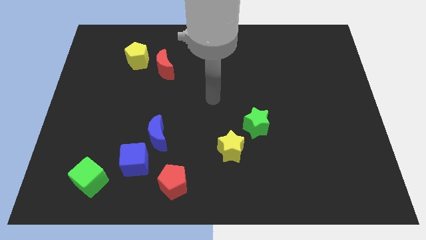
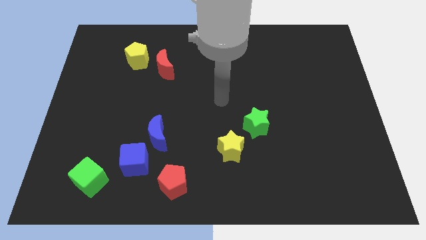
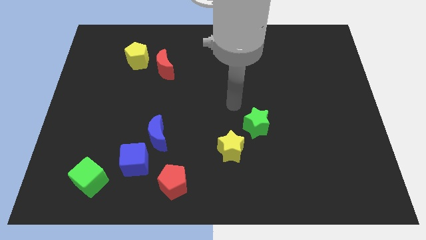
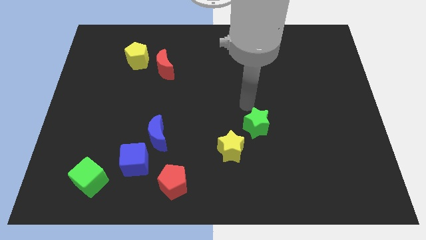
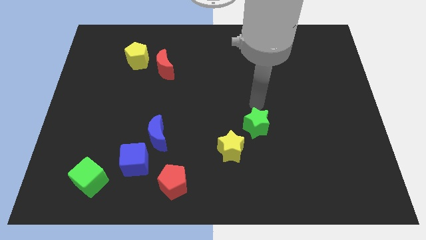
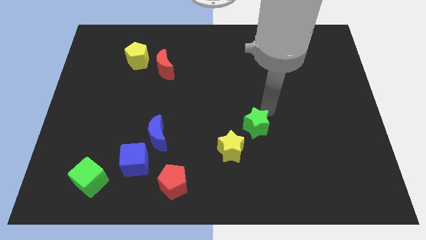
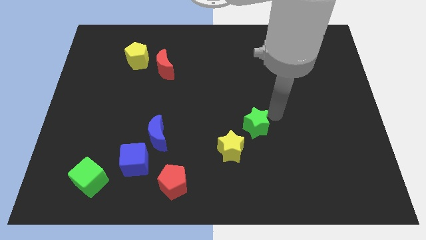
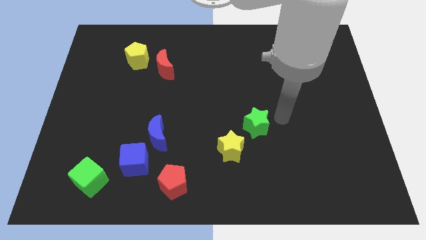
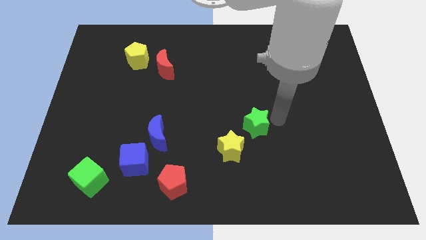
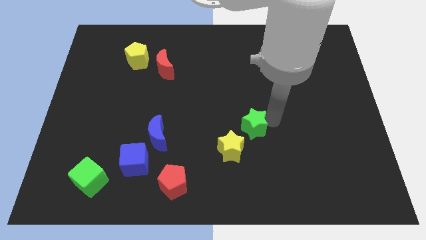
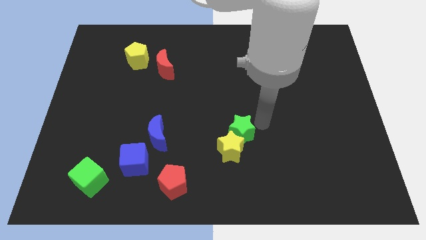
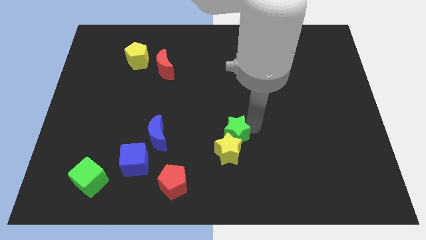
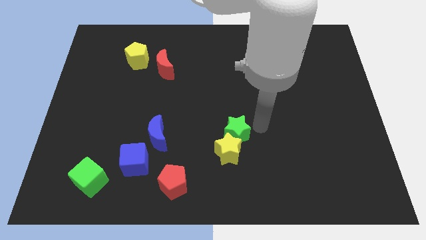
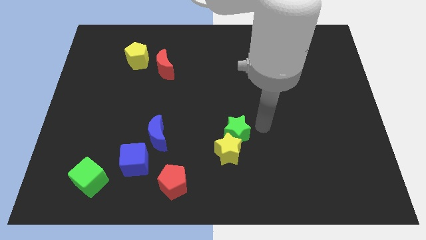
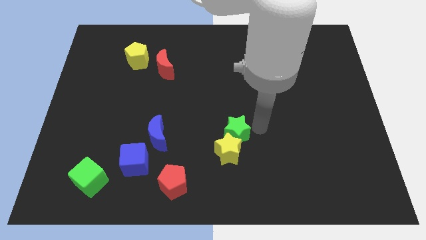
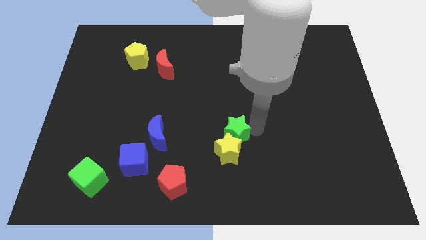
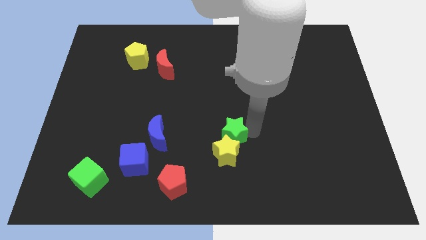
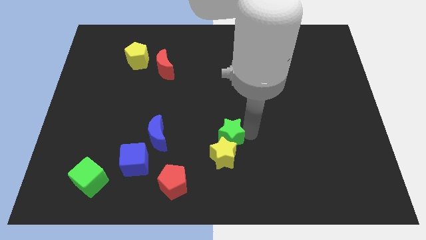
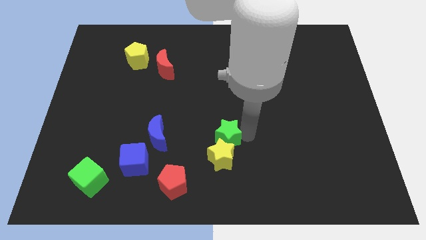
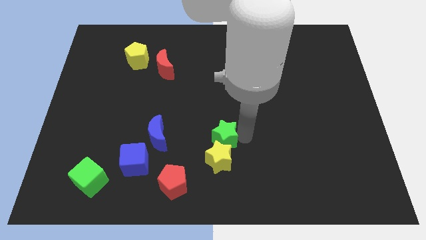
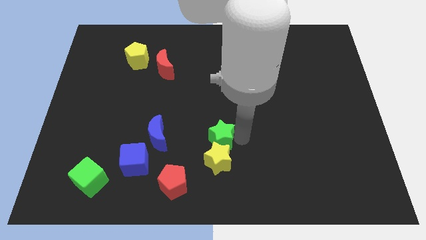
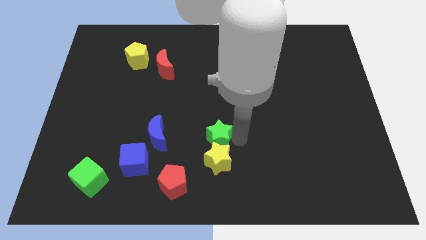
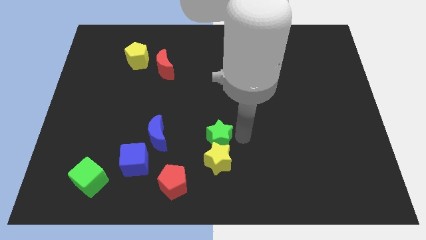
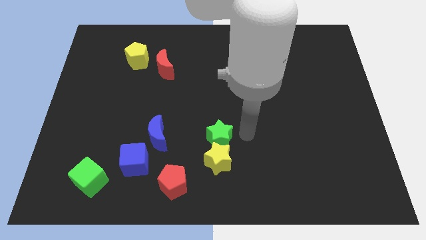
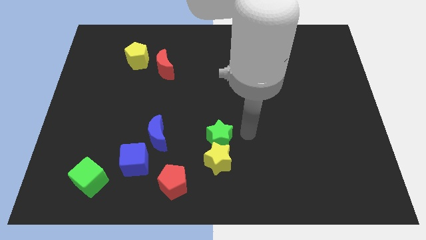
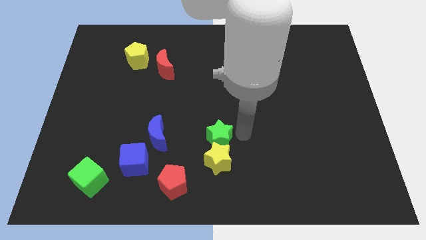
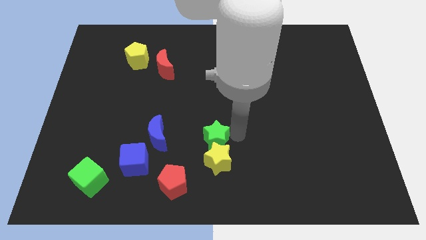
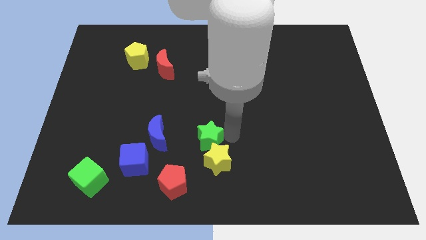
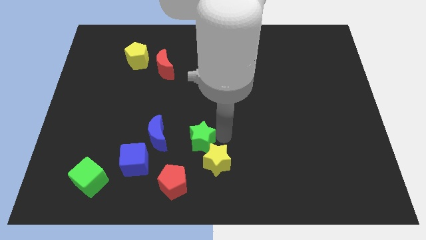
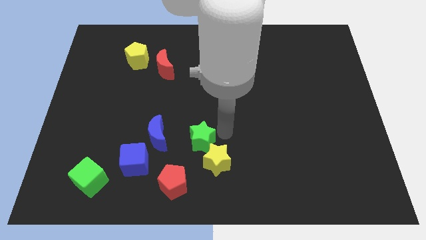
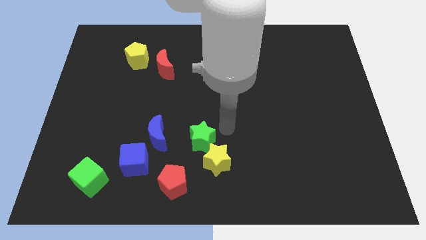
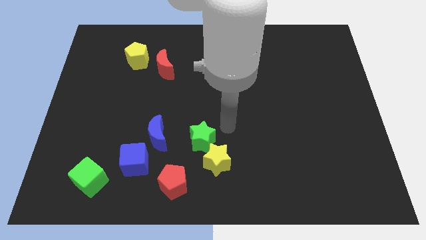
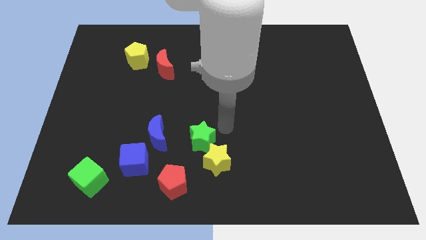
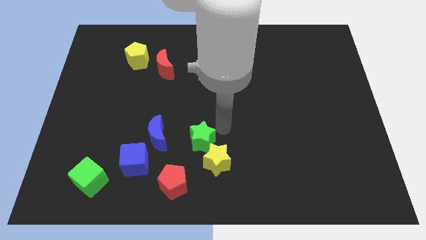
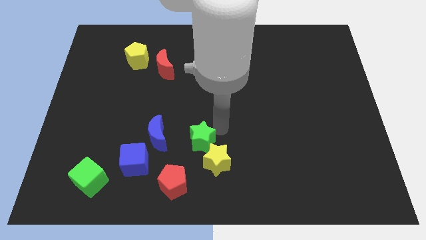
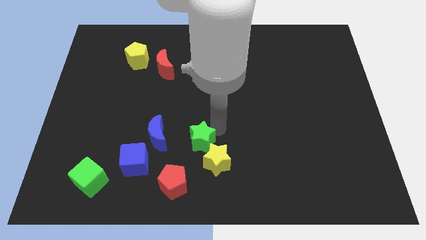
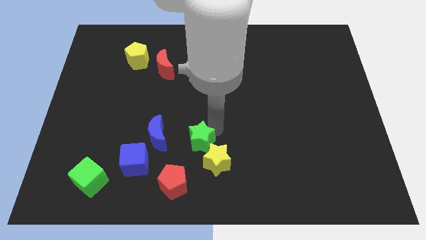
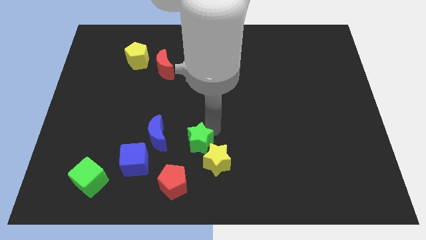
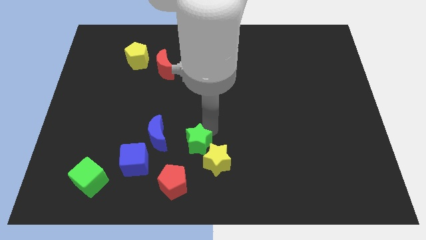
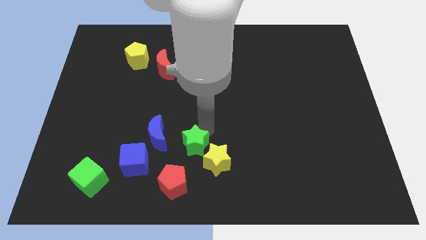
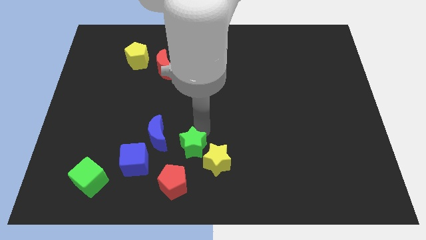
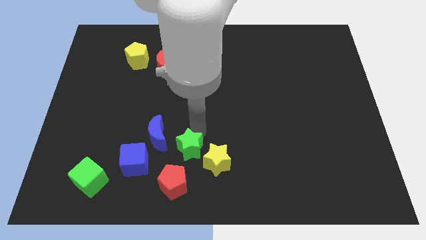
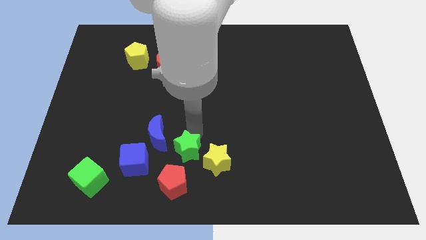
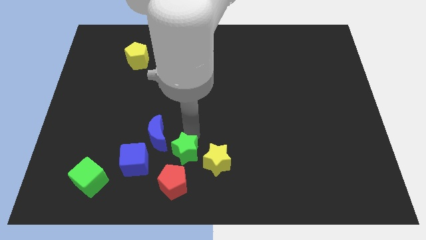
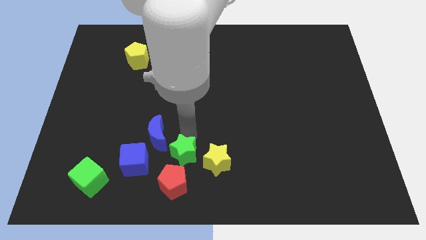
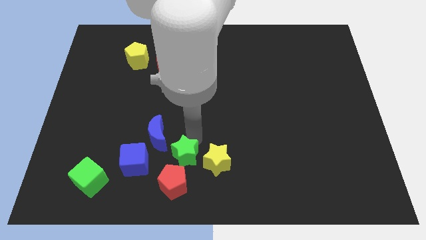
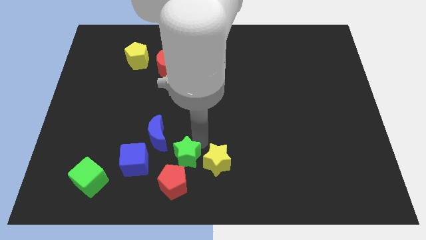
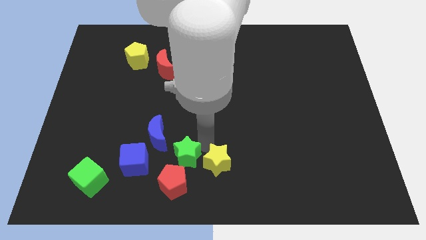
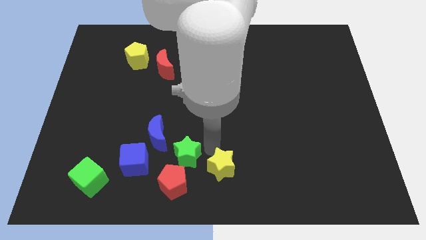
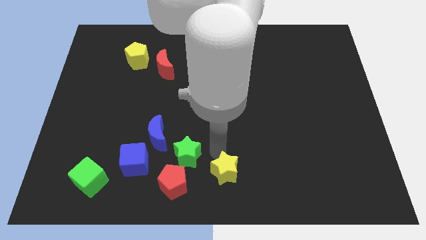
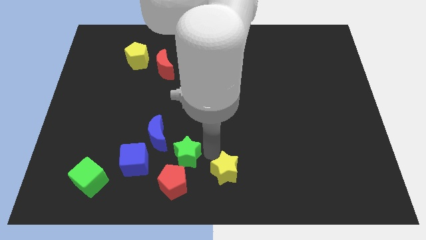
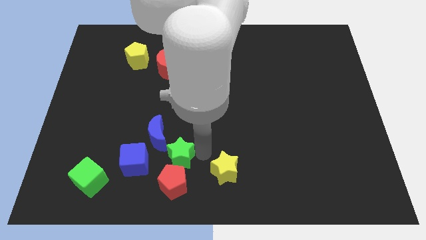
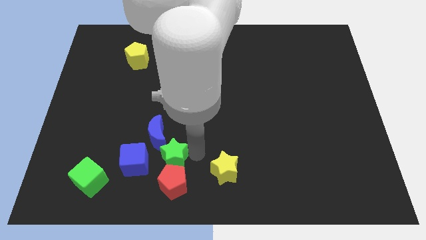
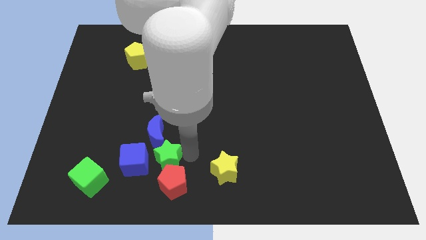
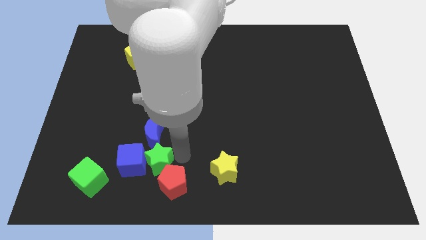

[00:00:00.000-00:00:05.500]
slide the green star to the blue cube

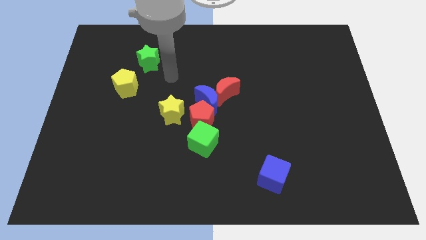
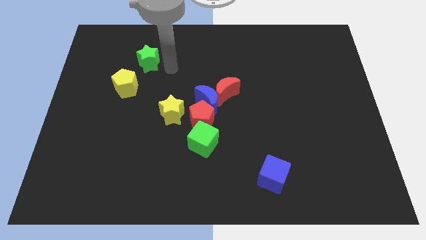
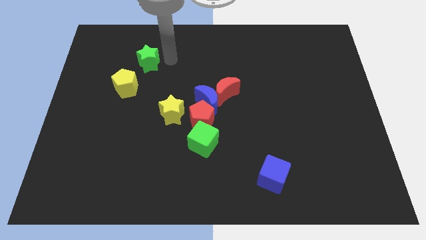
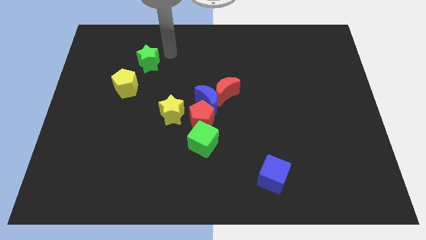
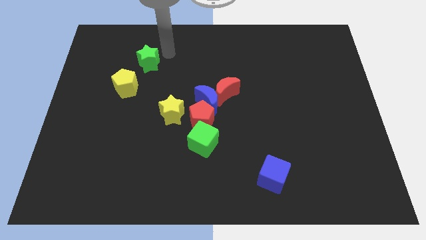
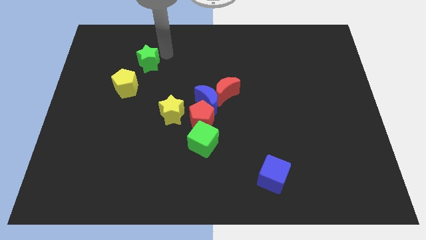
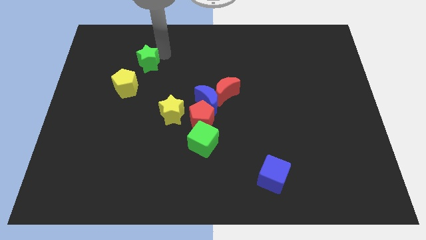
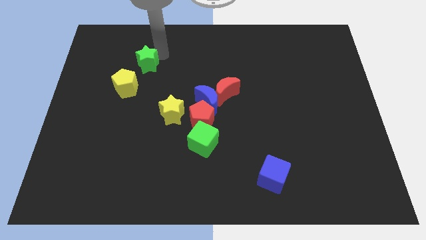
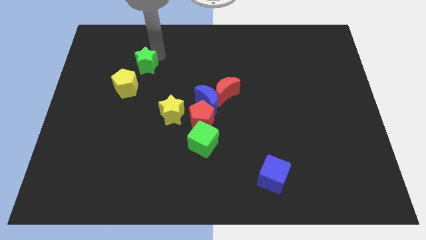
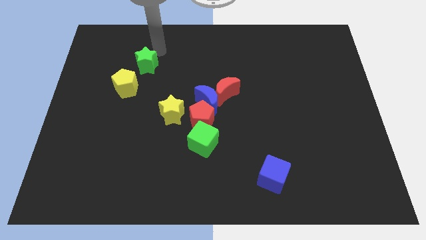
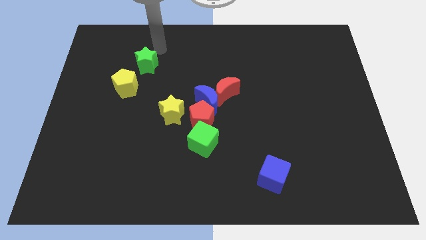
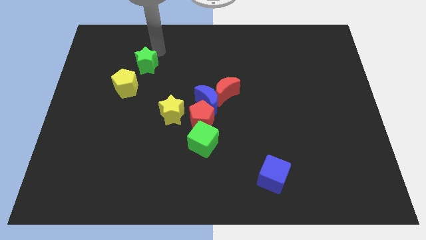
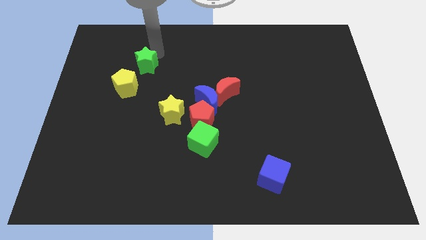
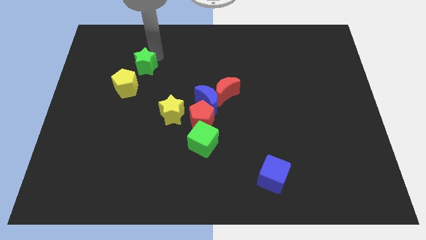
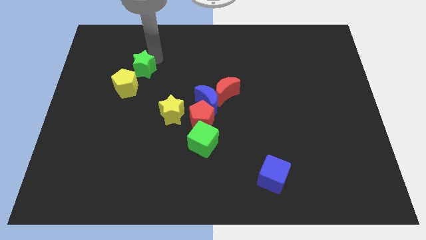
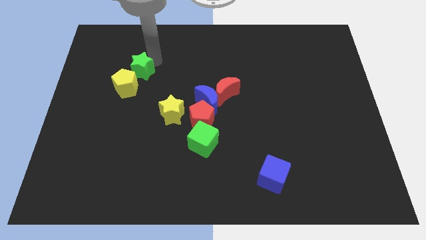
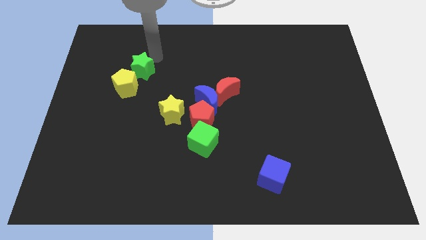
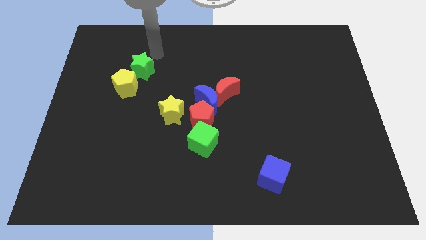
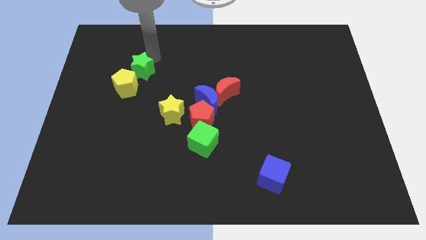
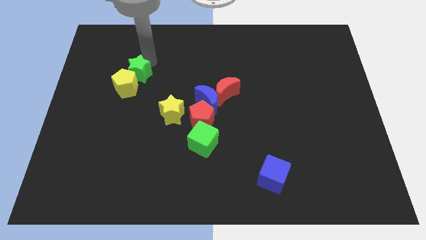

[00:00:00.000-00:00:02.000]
put the green star close to the yellow pentagon

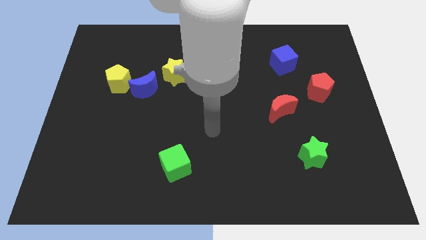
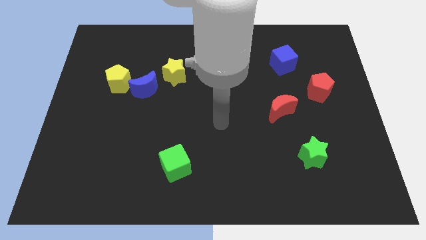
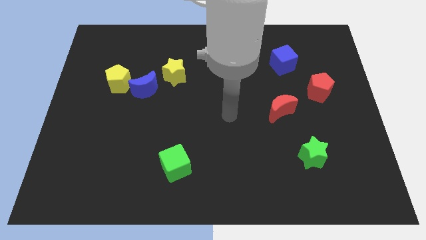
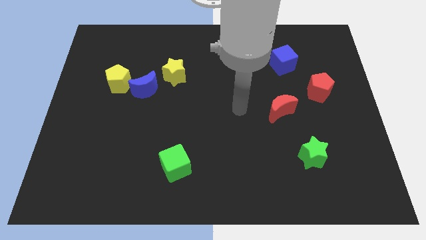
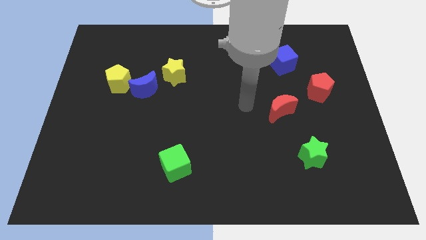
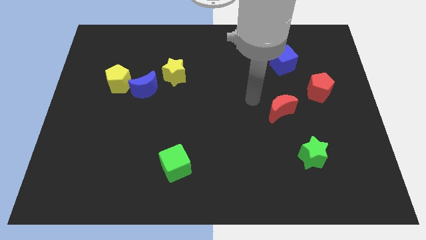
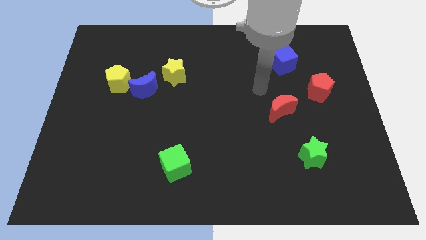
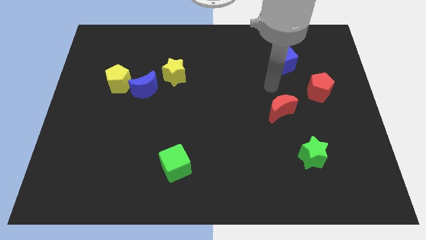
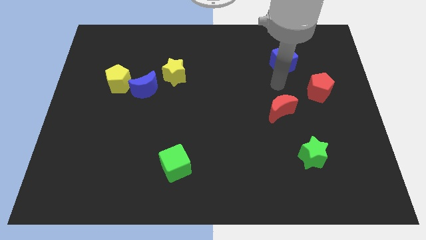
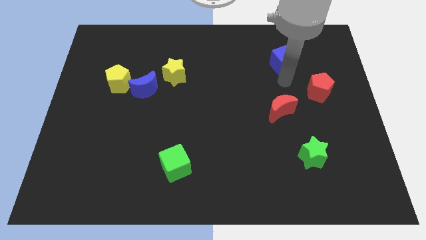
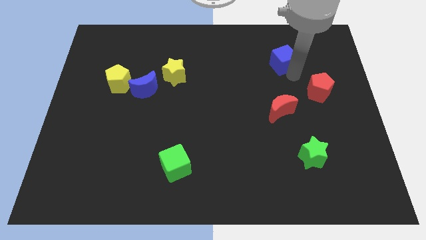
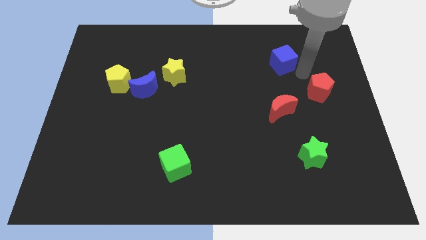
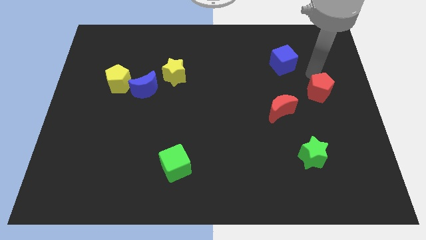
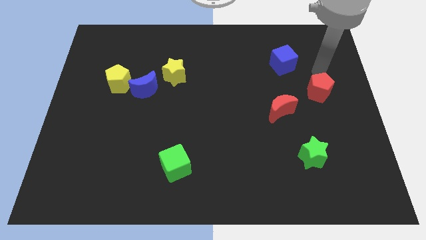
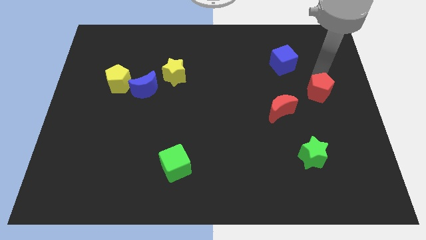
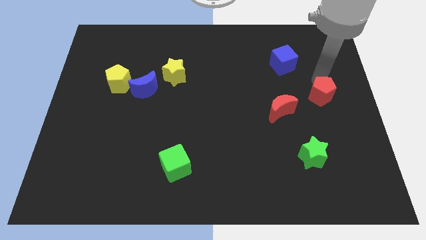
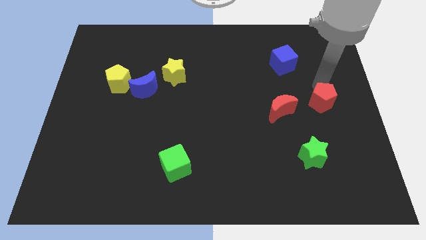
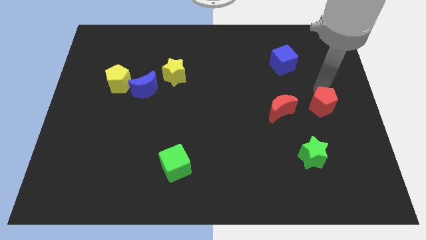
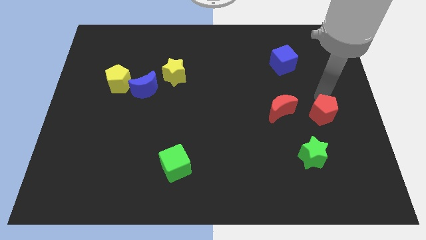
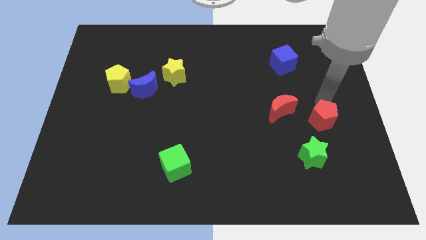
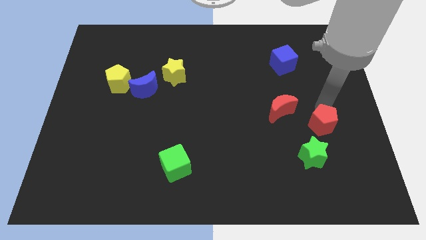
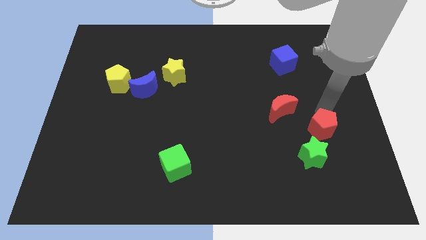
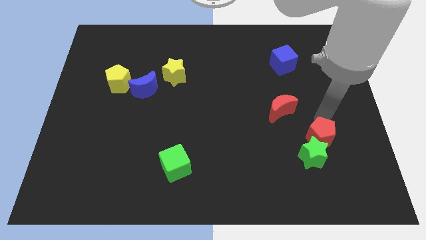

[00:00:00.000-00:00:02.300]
push the red pentagon close to the green star
